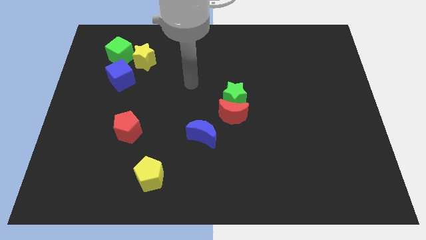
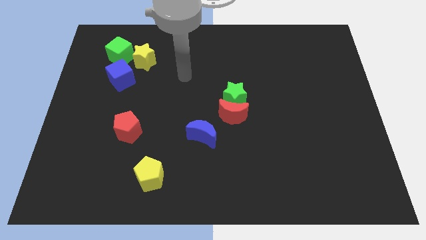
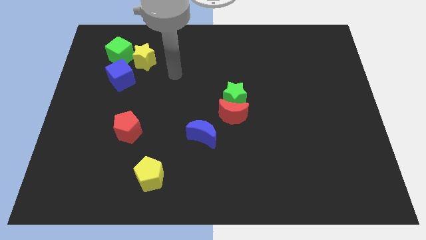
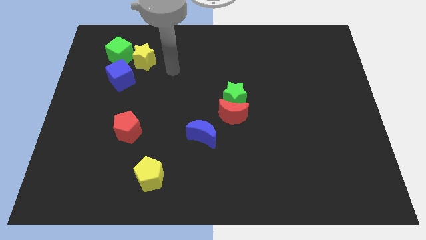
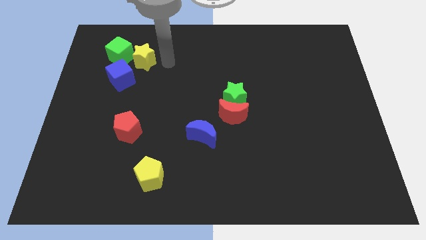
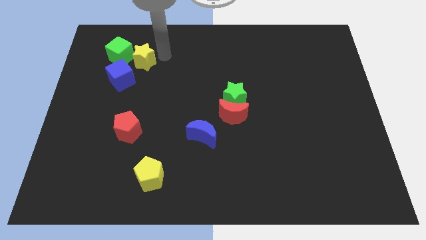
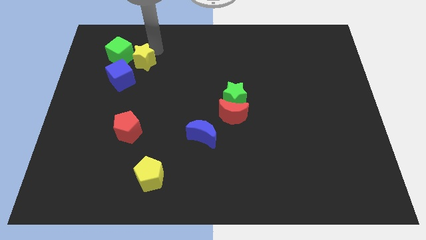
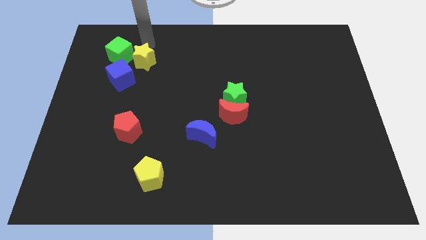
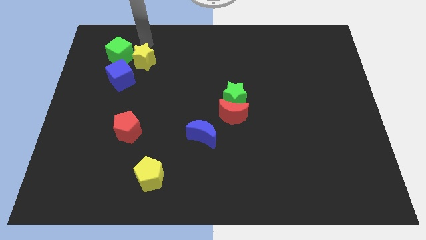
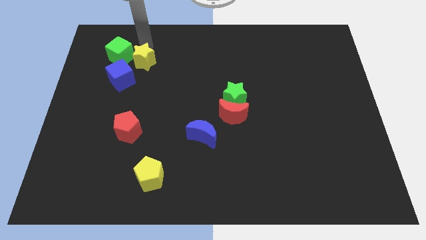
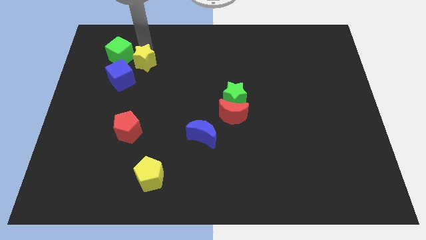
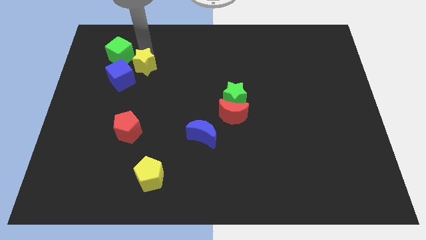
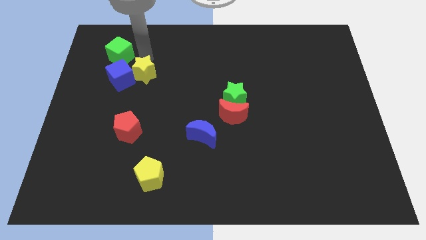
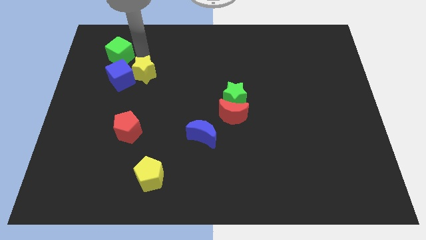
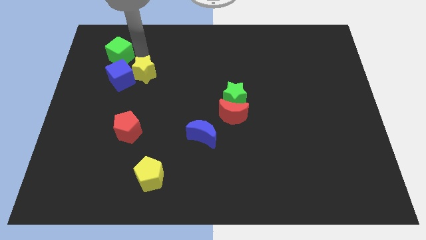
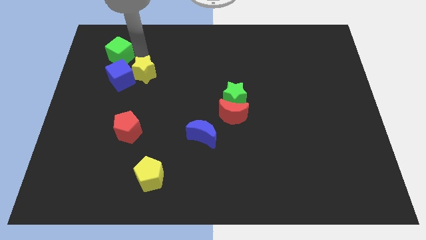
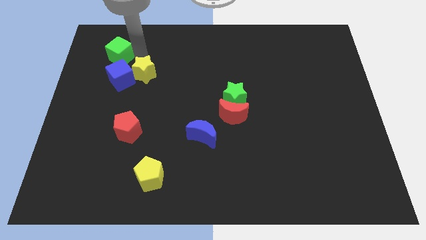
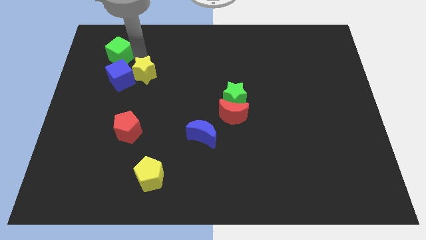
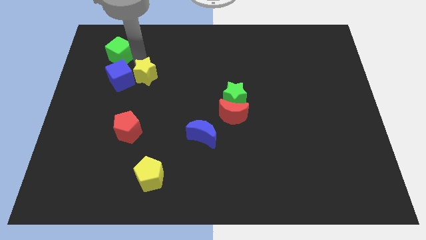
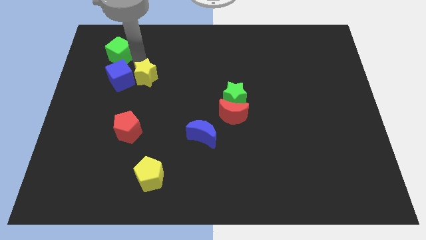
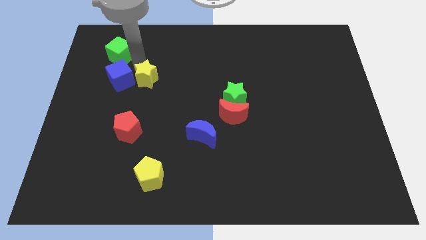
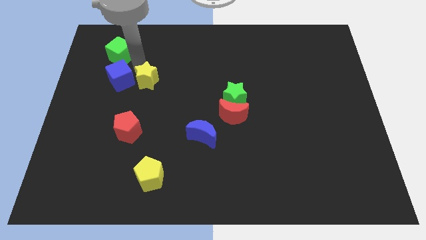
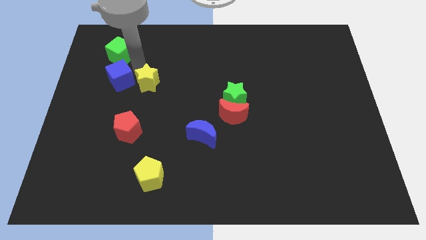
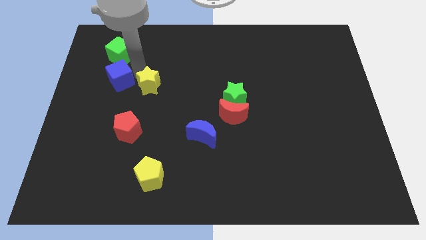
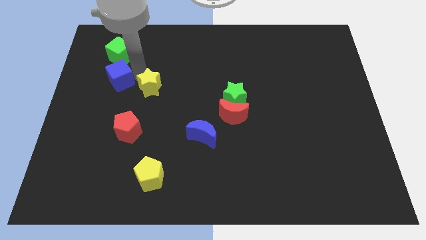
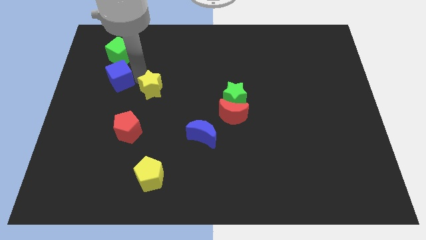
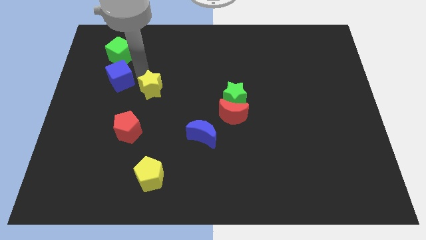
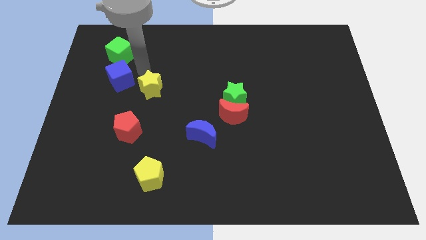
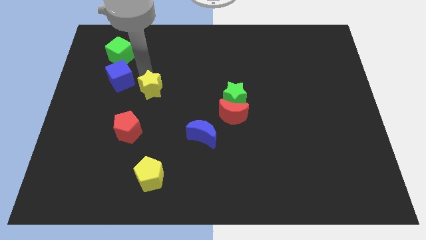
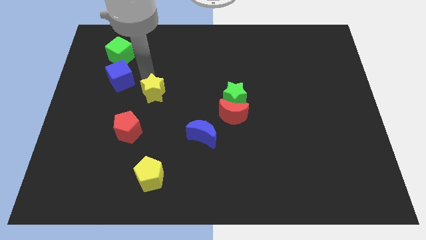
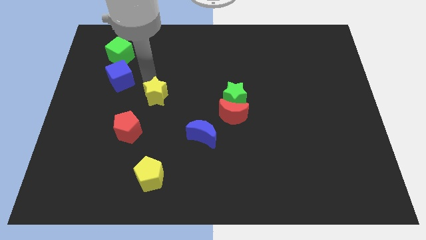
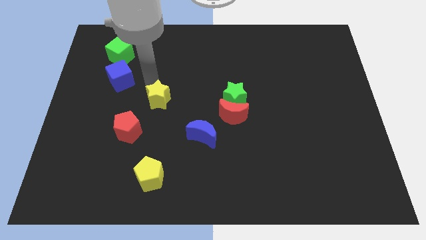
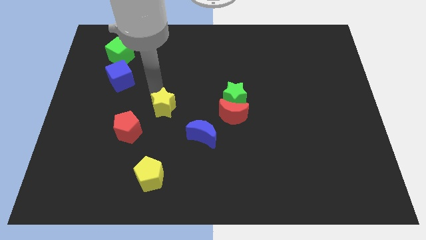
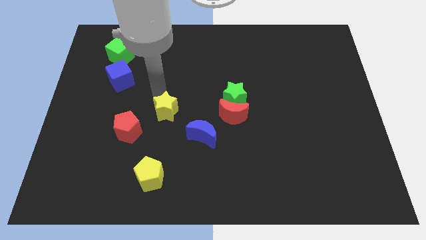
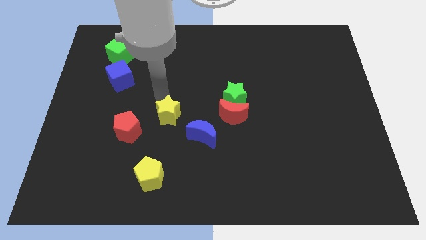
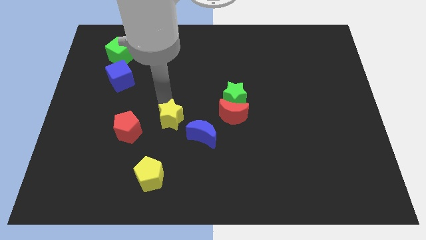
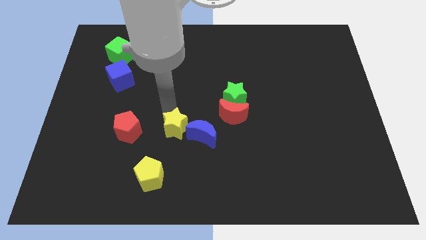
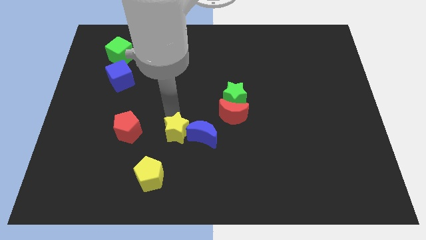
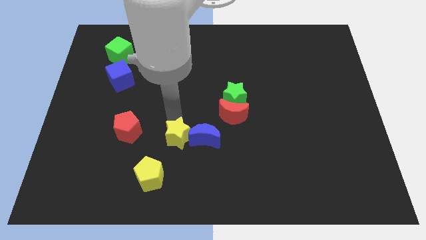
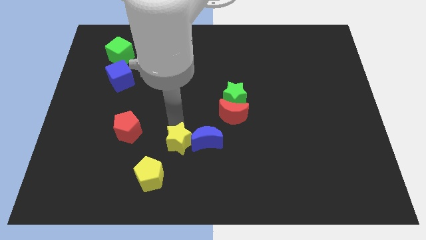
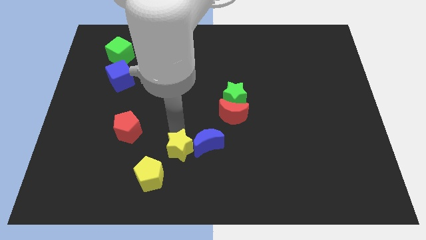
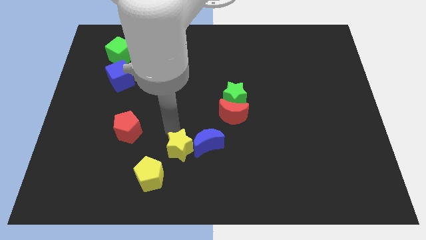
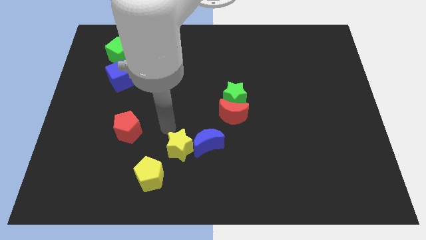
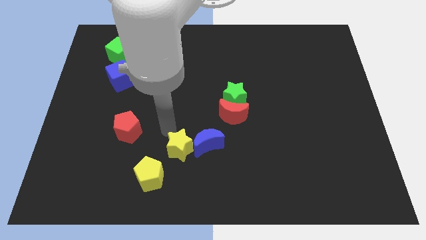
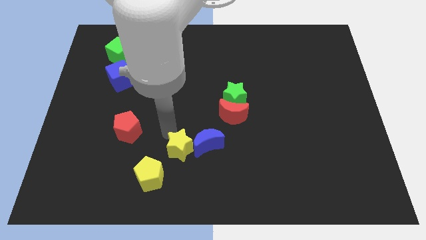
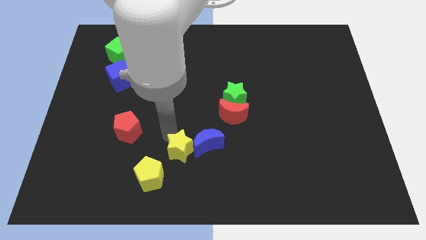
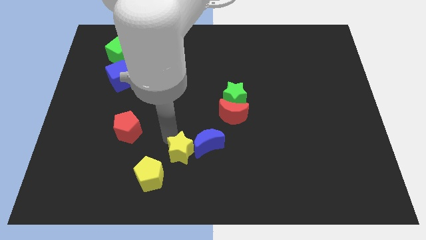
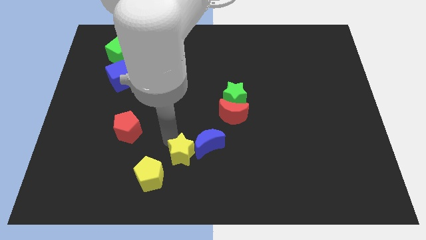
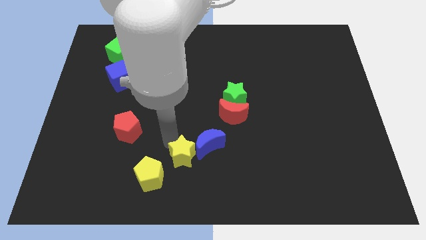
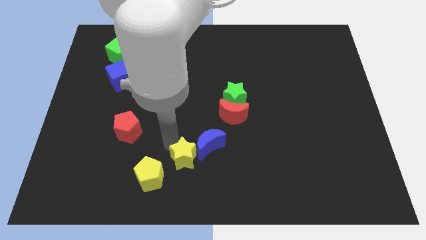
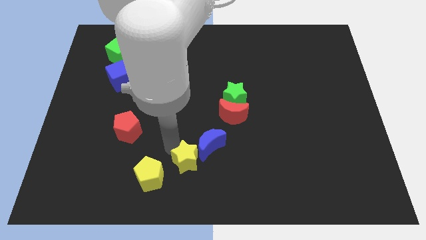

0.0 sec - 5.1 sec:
slide the yellow star to the bottom side

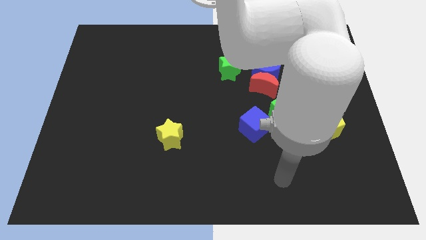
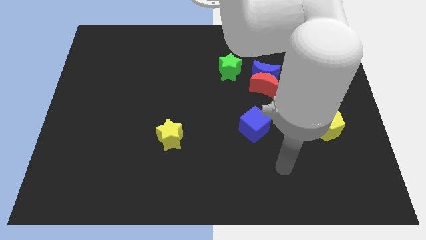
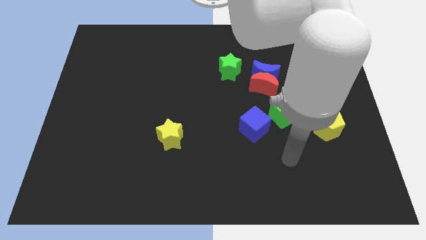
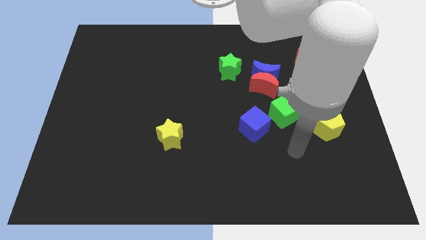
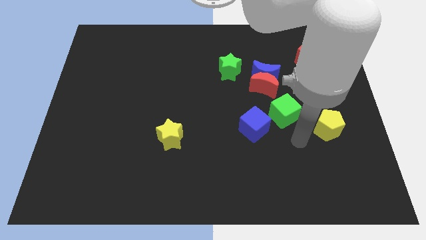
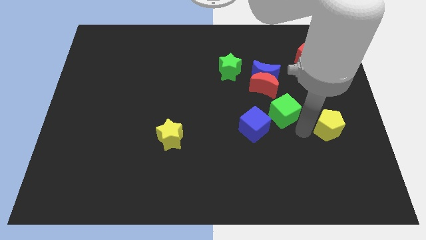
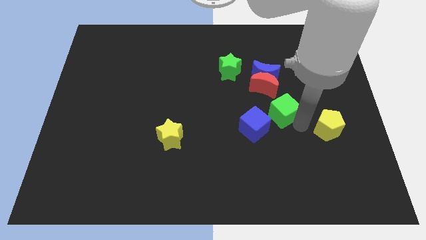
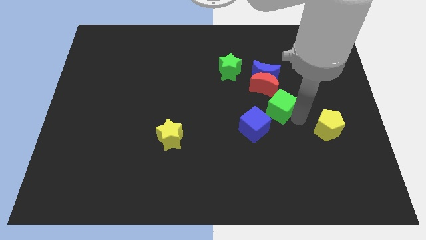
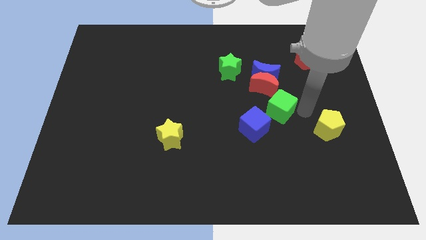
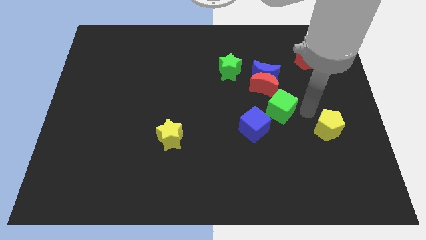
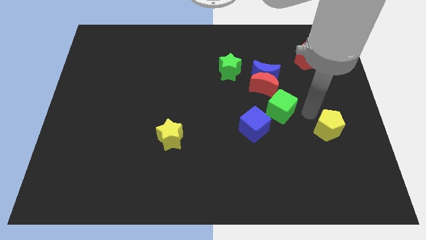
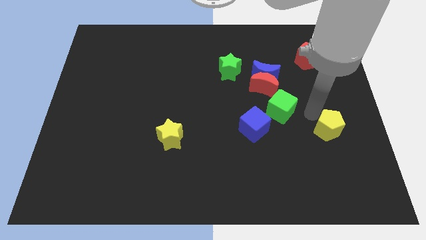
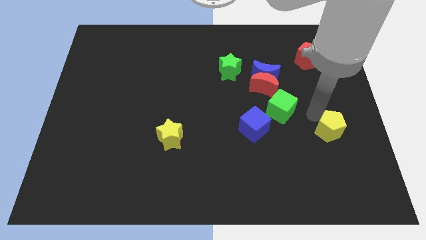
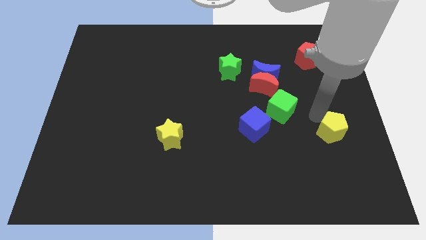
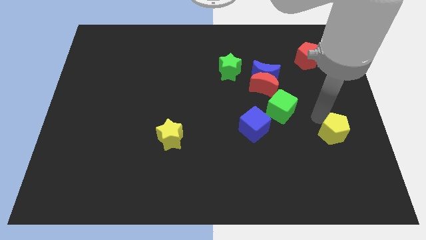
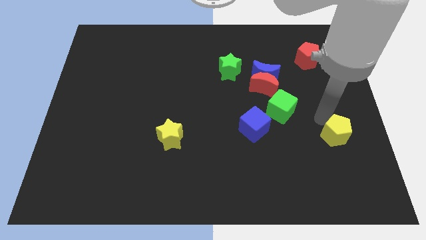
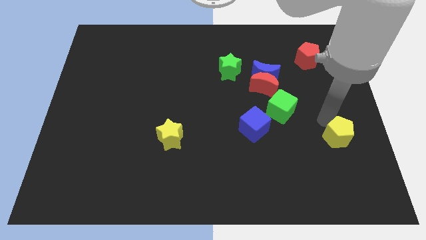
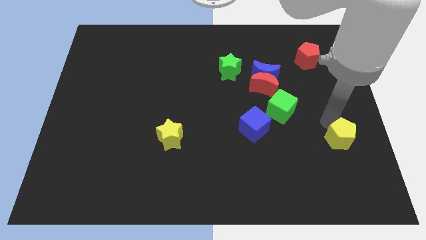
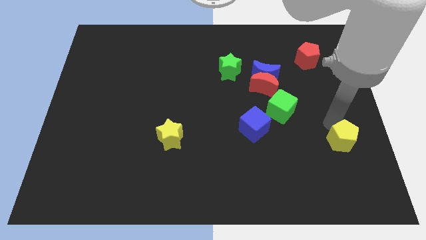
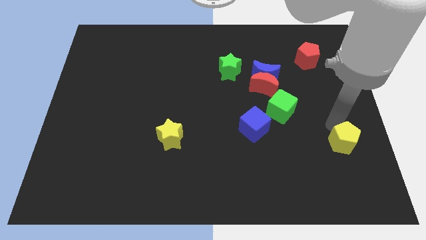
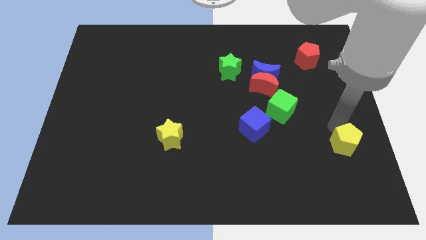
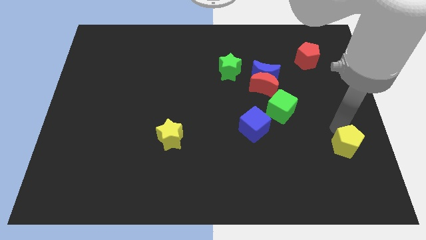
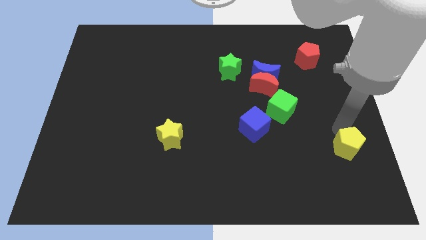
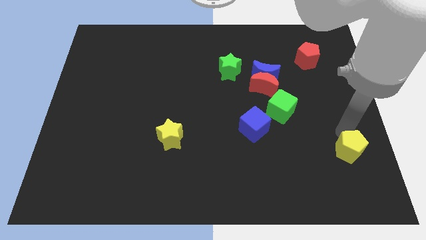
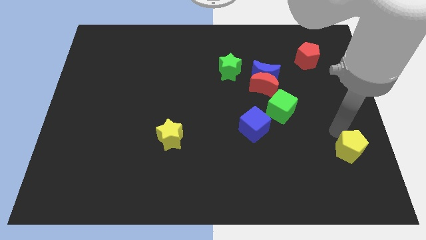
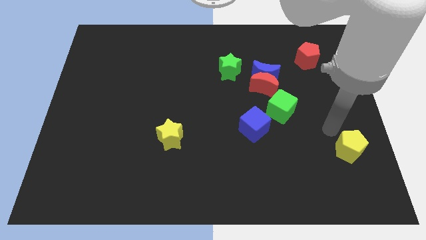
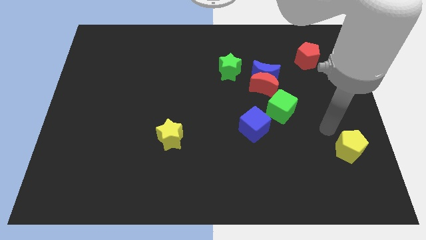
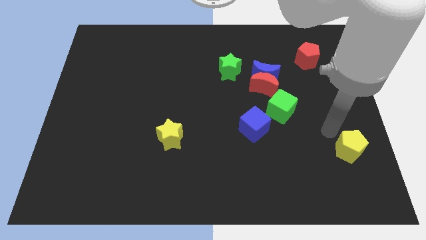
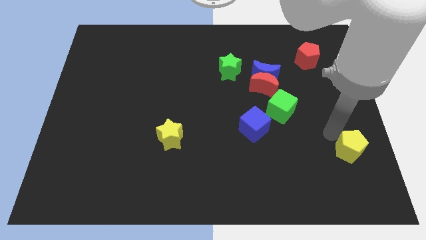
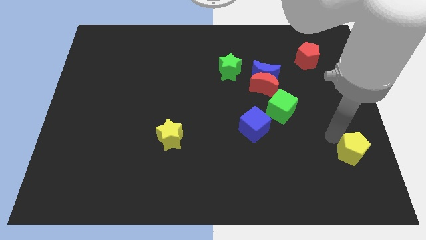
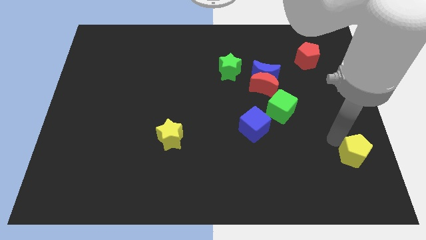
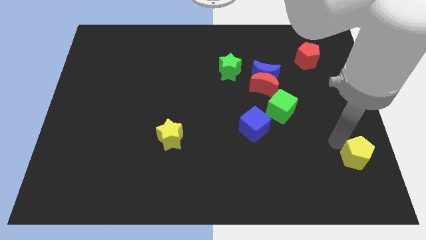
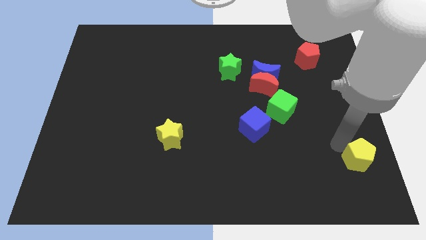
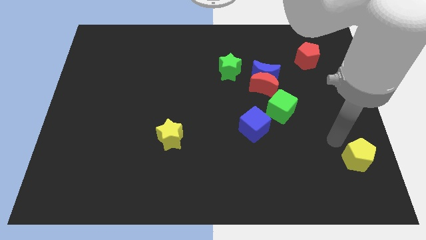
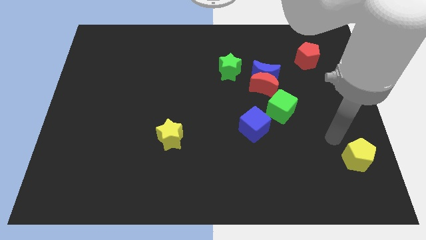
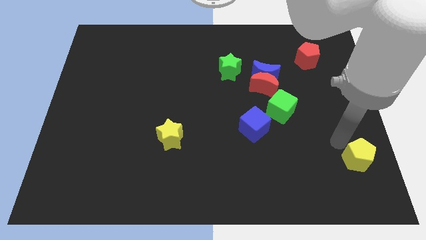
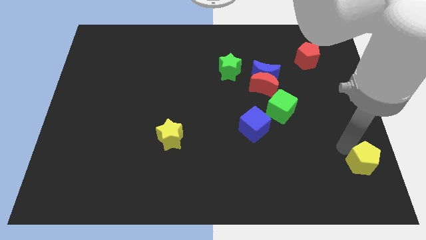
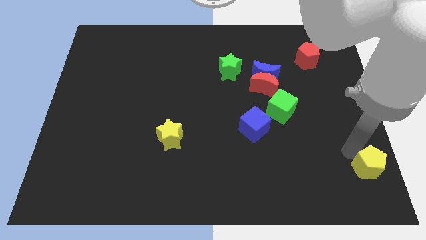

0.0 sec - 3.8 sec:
put the yellow pentagon to the lower right corner
